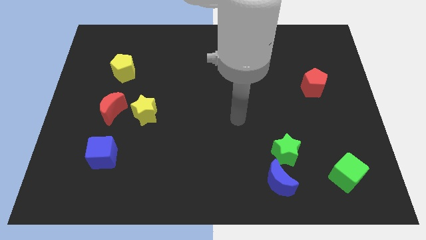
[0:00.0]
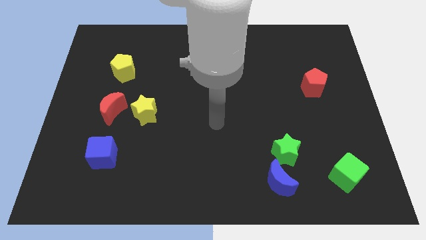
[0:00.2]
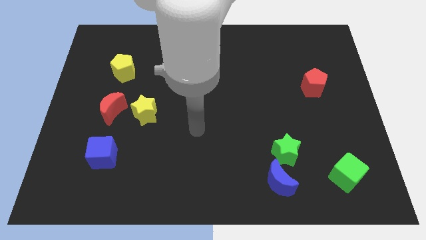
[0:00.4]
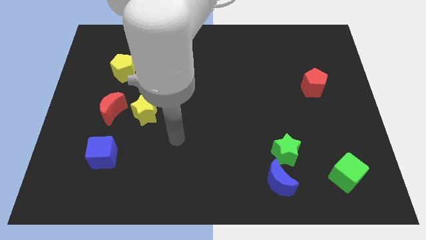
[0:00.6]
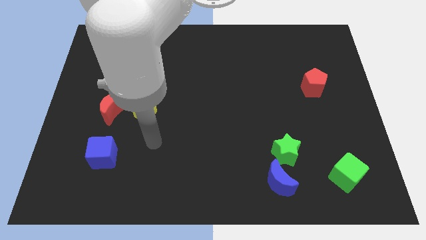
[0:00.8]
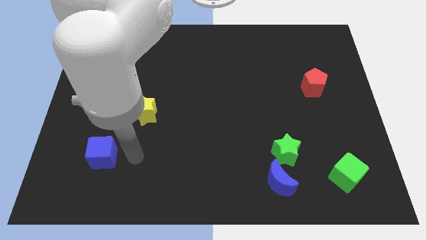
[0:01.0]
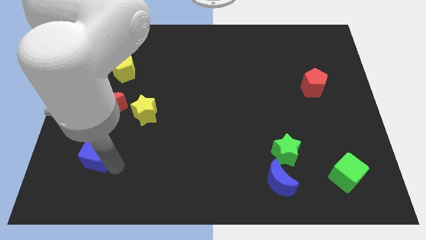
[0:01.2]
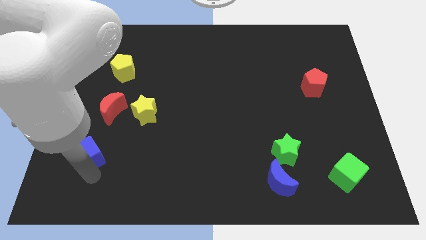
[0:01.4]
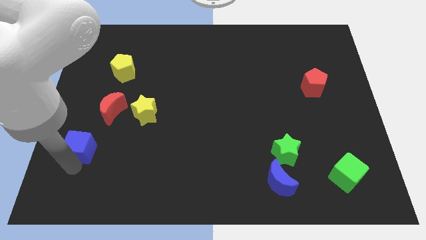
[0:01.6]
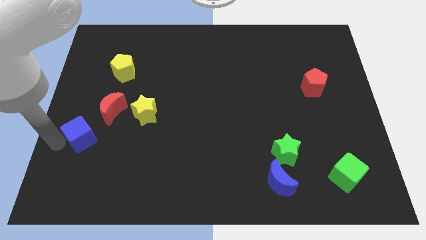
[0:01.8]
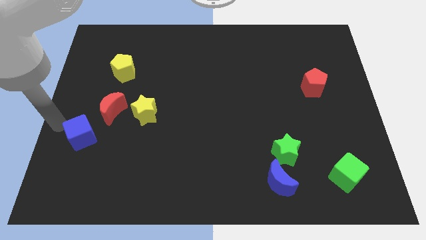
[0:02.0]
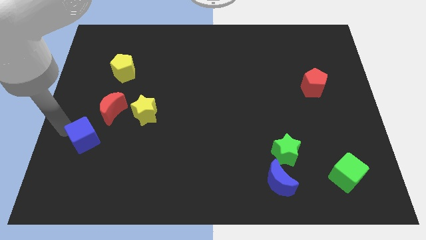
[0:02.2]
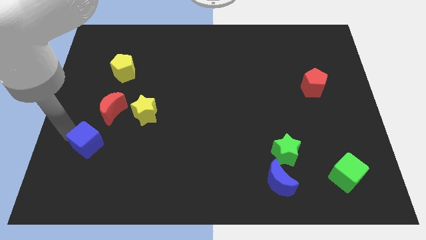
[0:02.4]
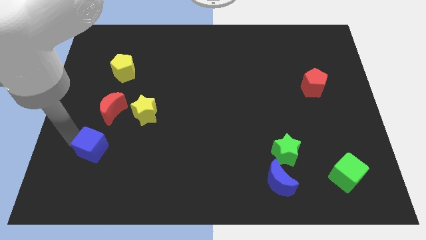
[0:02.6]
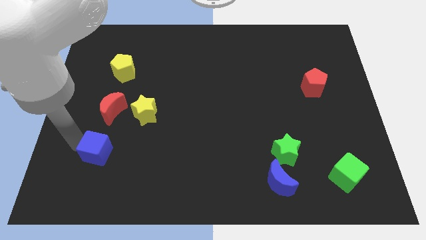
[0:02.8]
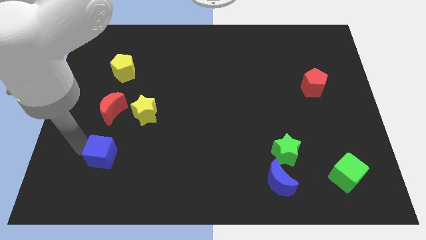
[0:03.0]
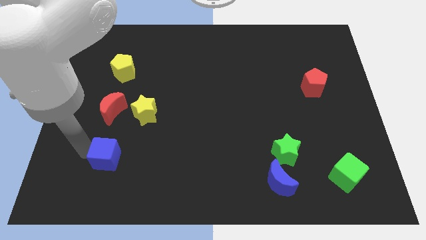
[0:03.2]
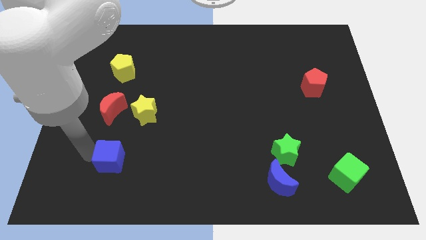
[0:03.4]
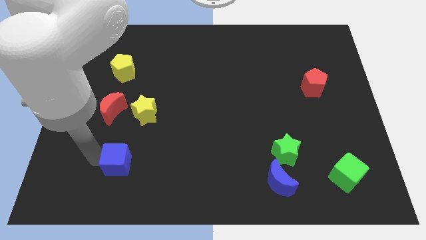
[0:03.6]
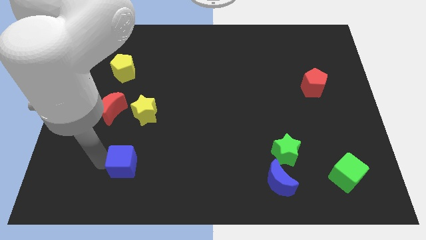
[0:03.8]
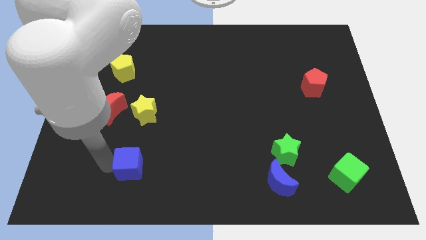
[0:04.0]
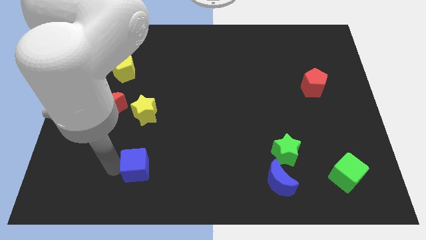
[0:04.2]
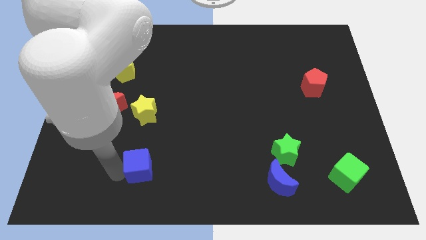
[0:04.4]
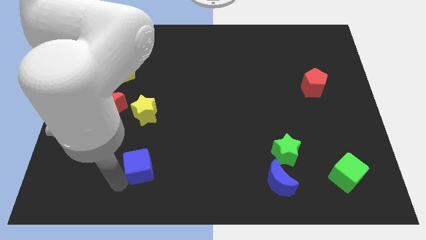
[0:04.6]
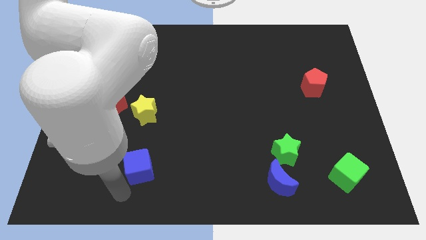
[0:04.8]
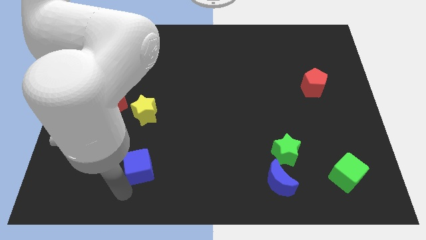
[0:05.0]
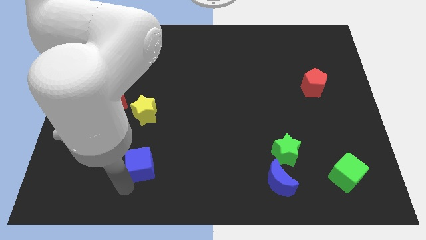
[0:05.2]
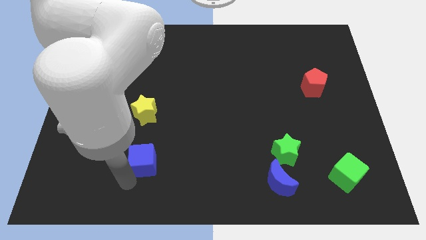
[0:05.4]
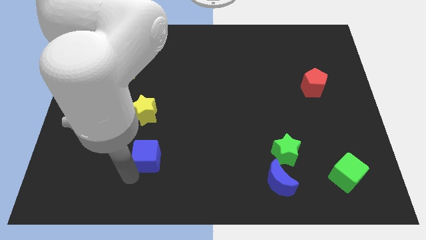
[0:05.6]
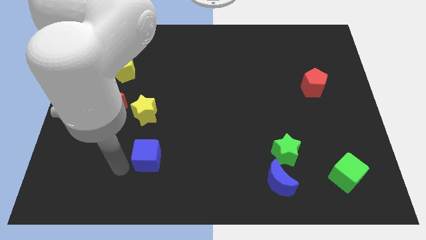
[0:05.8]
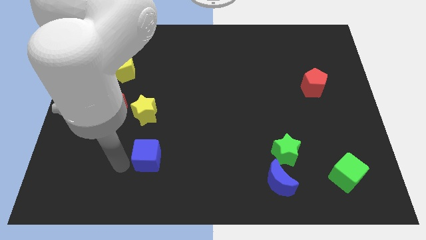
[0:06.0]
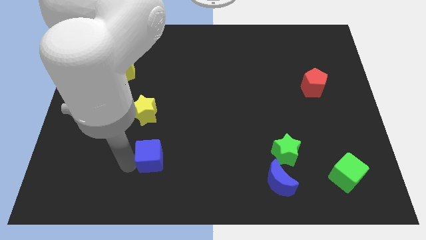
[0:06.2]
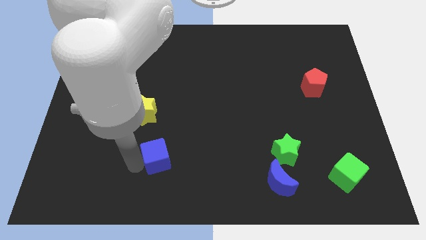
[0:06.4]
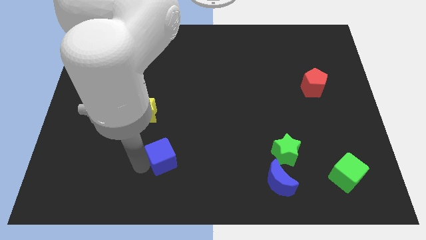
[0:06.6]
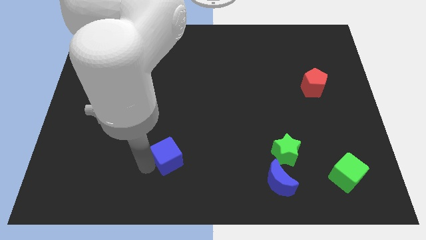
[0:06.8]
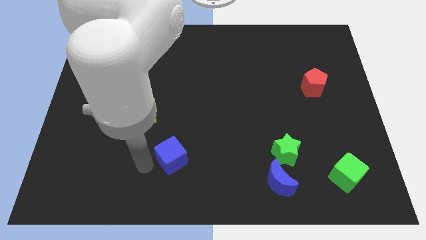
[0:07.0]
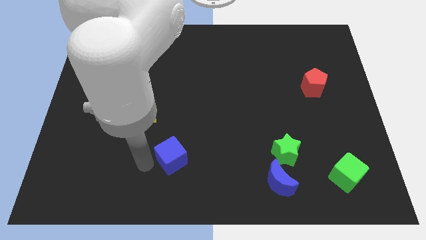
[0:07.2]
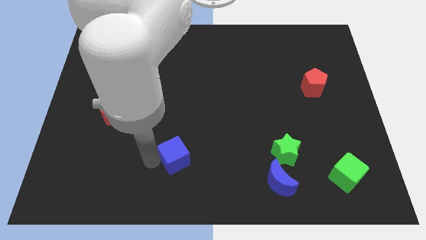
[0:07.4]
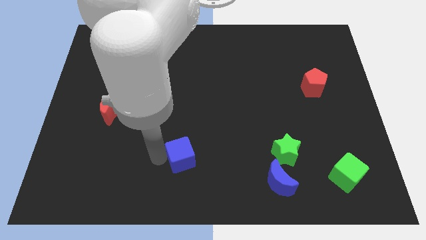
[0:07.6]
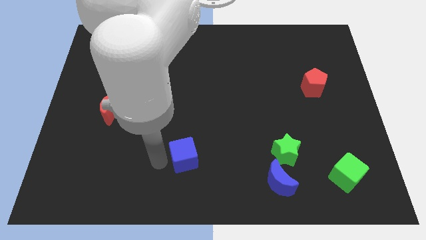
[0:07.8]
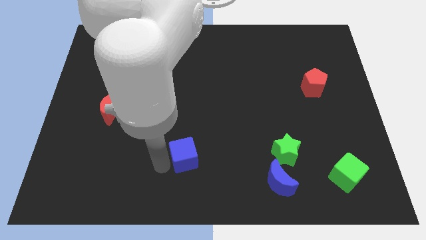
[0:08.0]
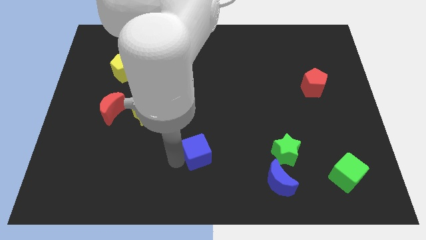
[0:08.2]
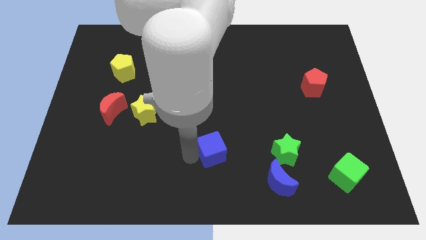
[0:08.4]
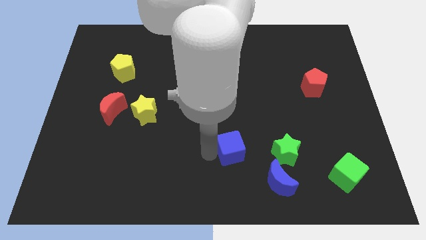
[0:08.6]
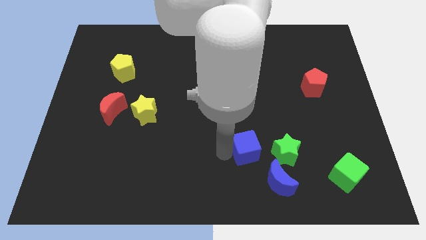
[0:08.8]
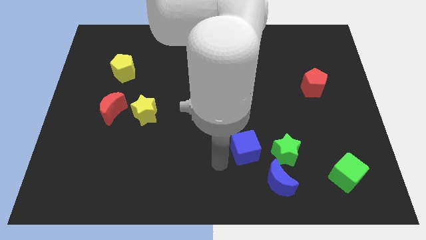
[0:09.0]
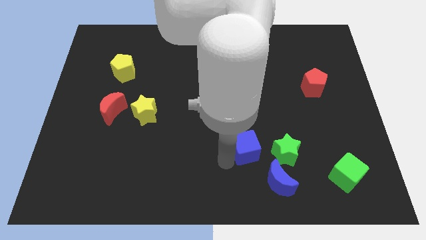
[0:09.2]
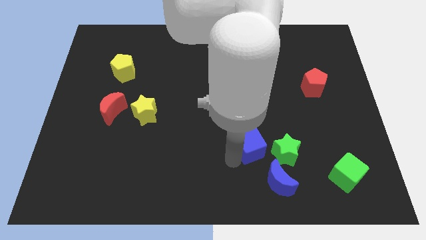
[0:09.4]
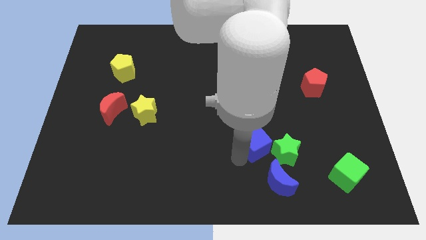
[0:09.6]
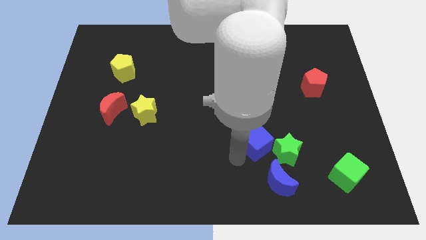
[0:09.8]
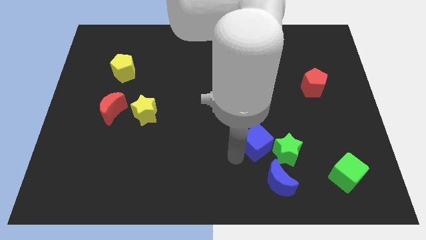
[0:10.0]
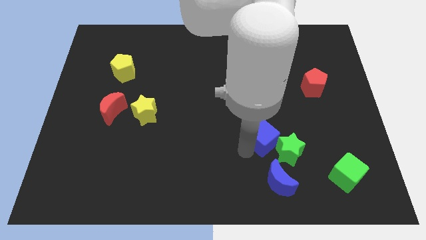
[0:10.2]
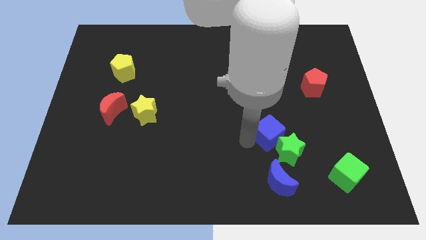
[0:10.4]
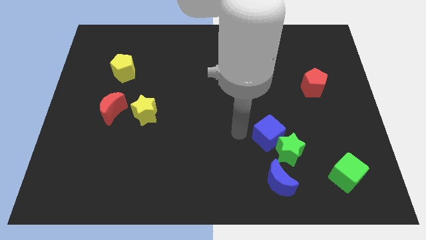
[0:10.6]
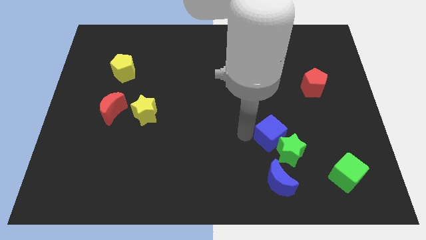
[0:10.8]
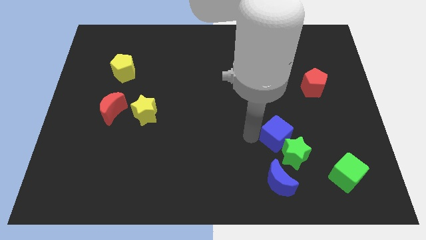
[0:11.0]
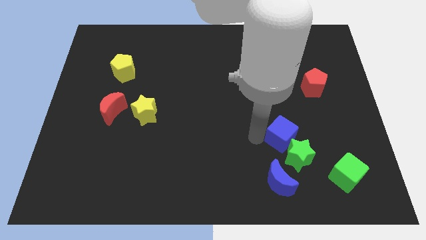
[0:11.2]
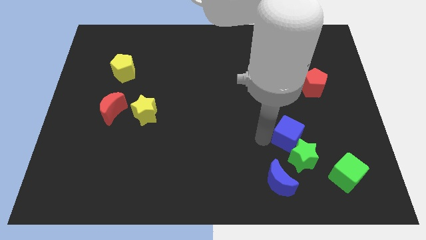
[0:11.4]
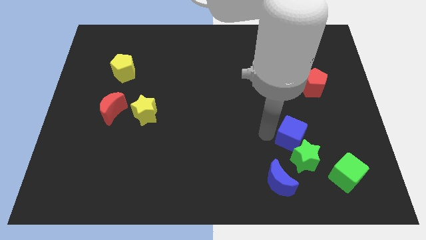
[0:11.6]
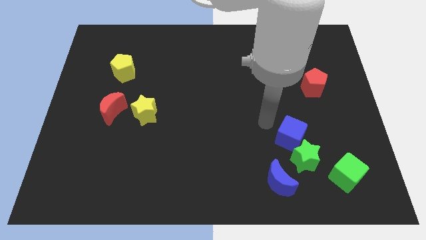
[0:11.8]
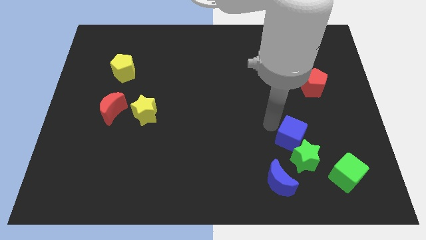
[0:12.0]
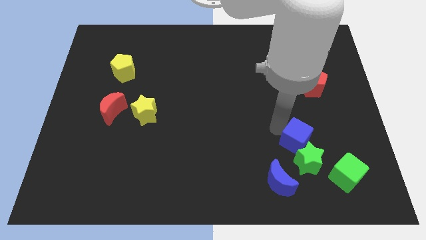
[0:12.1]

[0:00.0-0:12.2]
put the blue cube to the top left of the green cube
